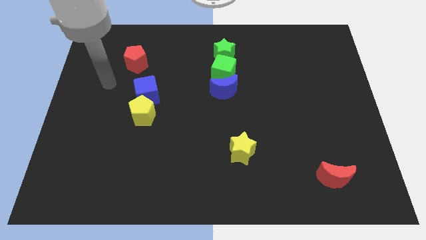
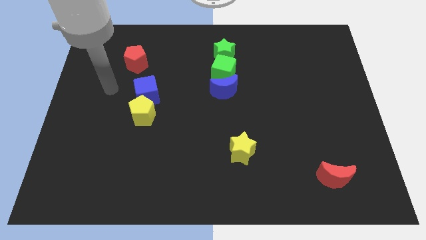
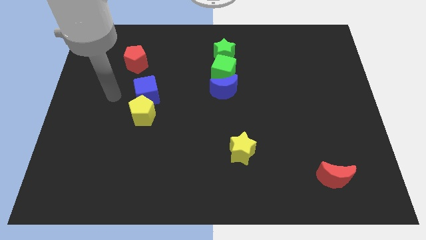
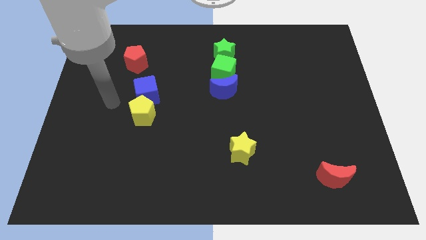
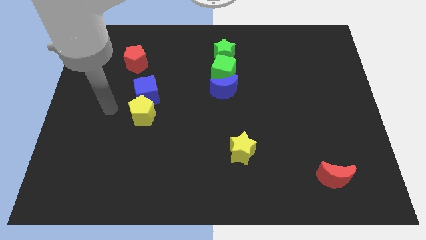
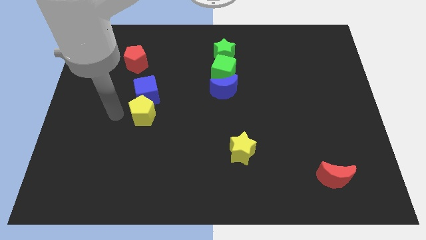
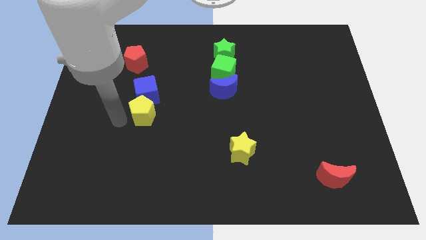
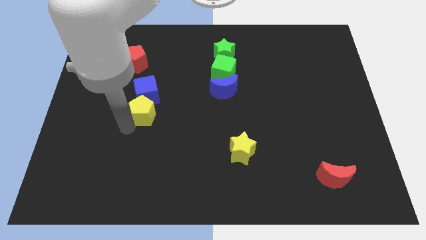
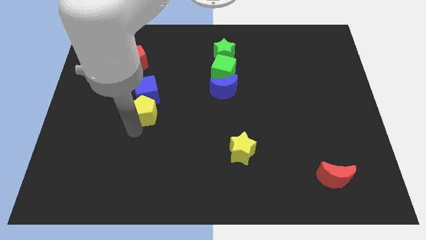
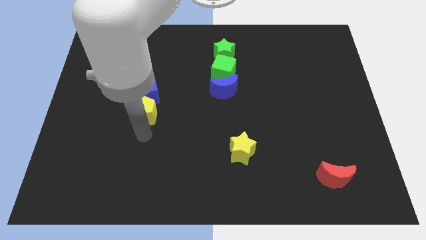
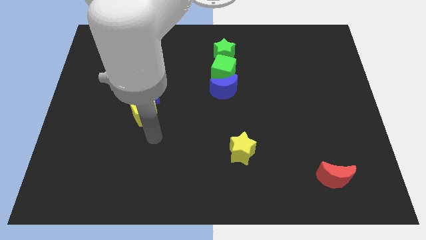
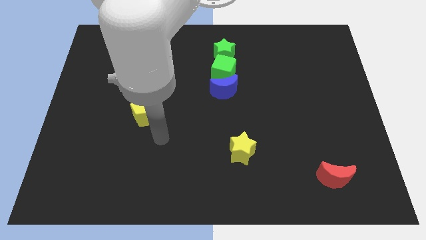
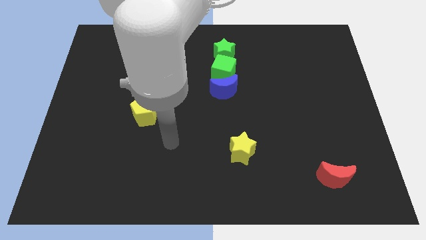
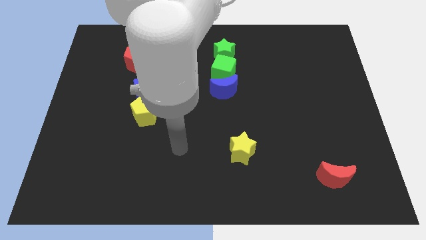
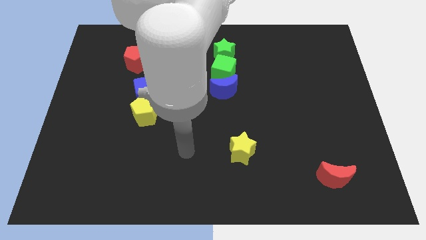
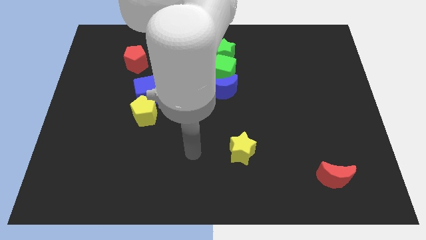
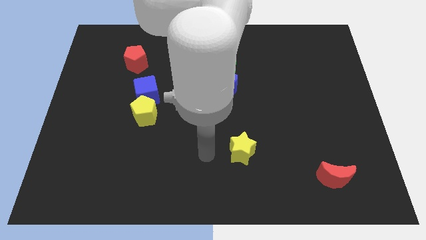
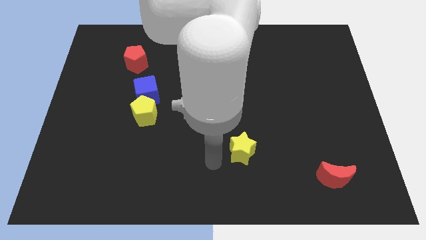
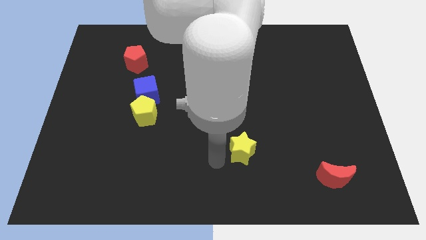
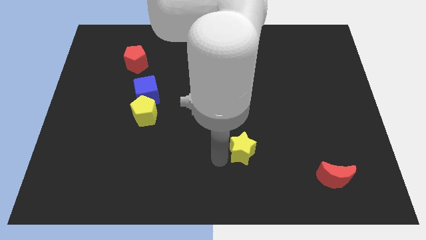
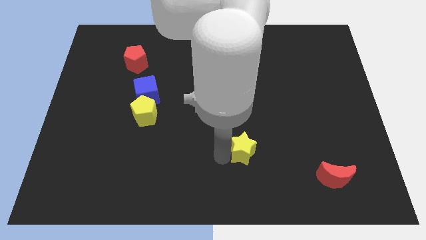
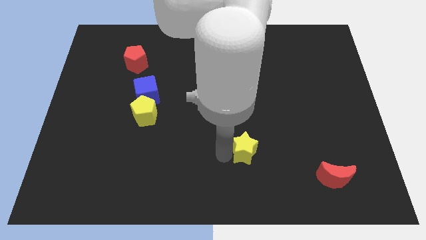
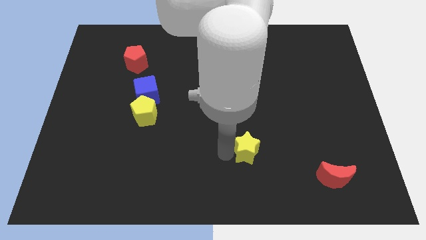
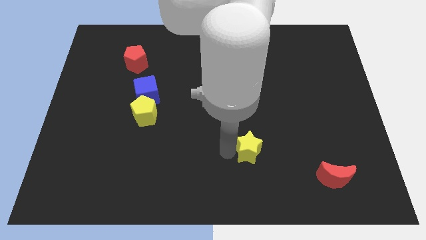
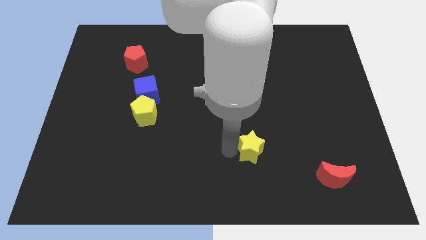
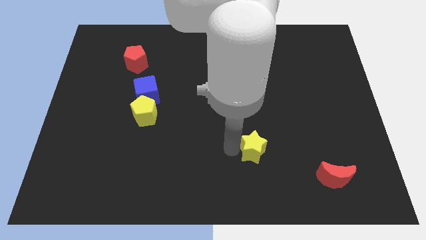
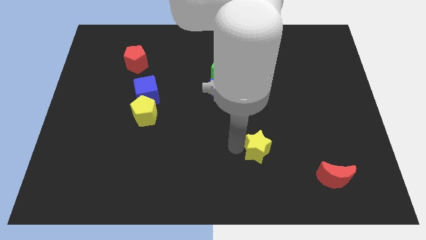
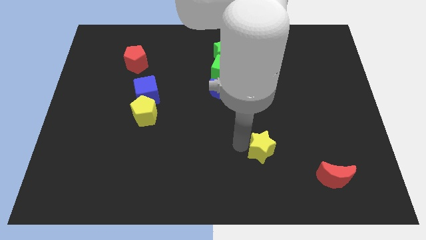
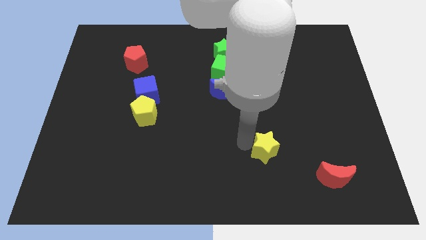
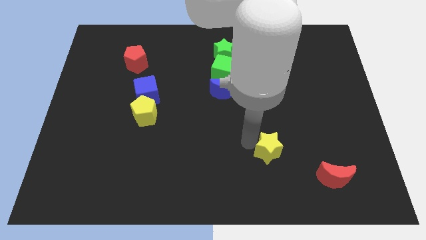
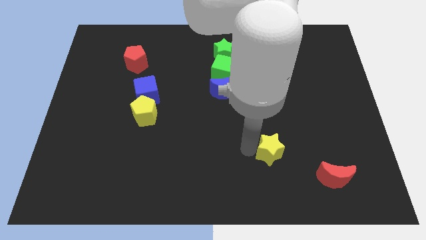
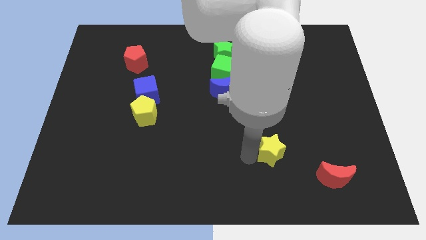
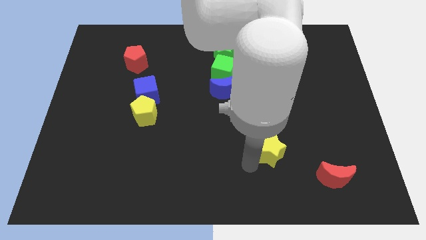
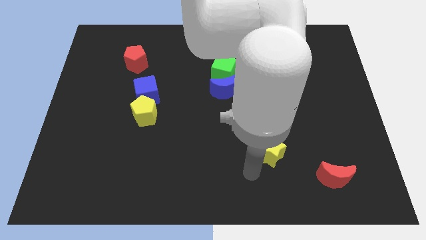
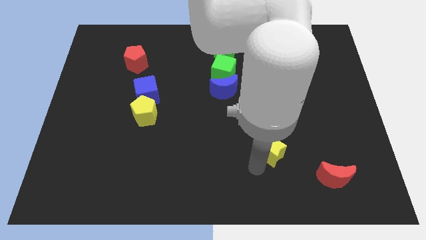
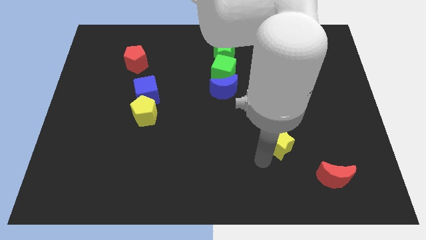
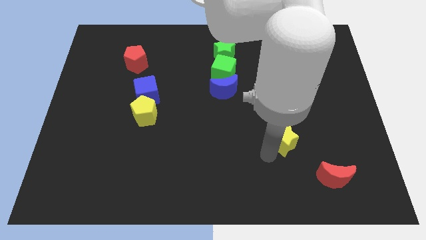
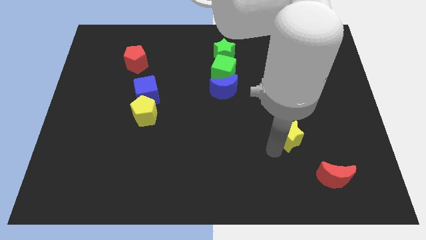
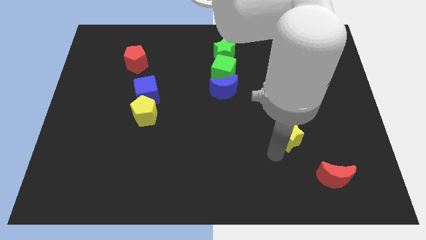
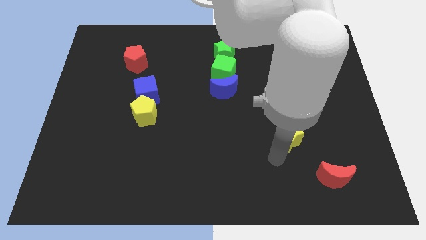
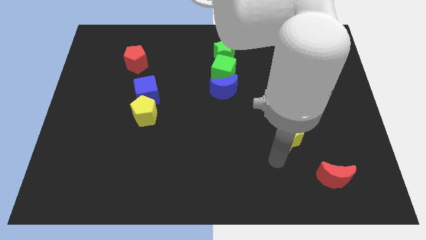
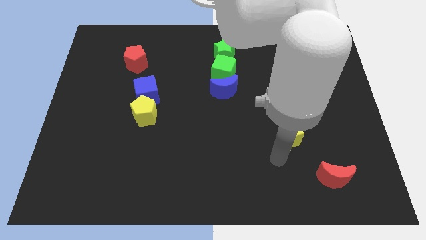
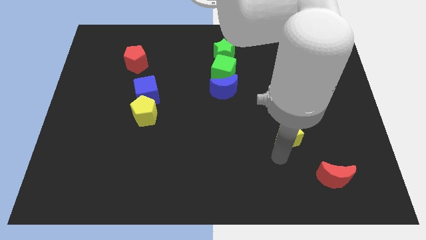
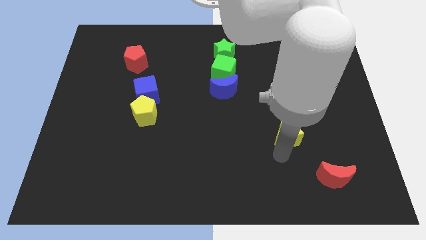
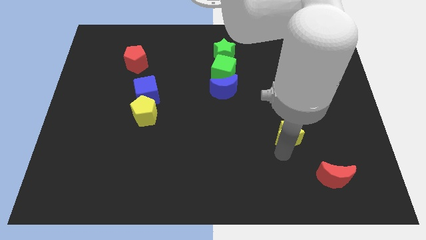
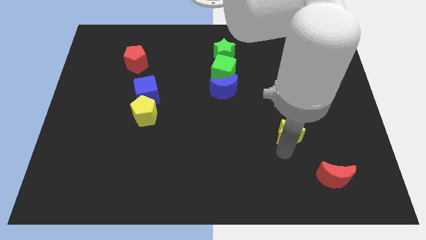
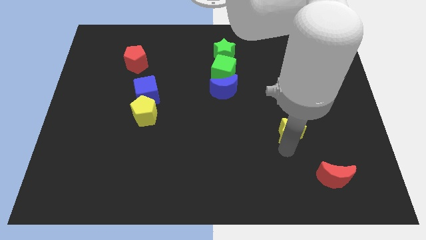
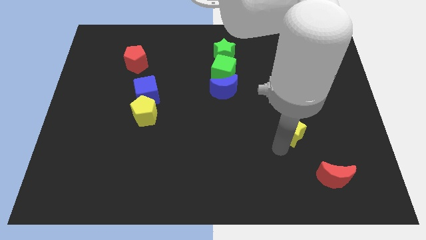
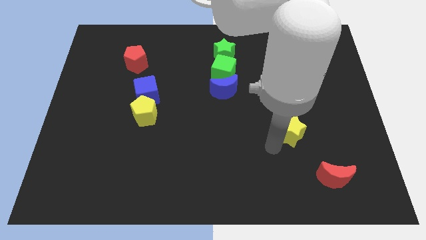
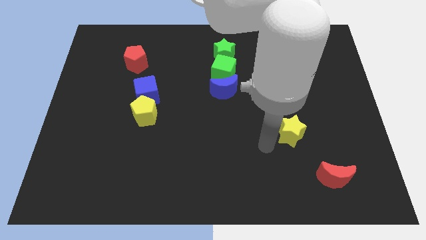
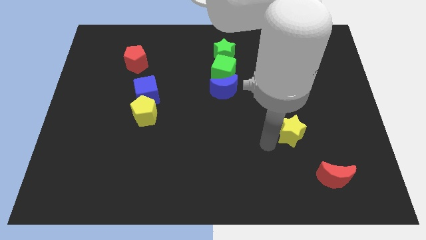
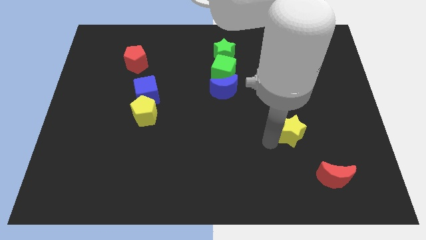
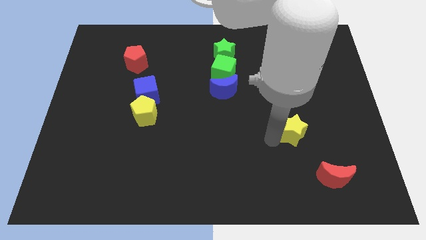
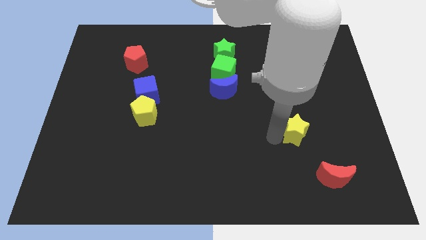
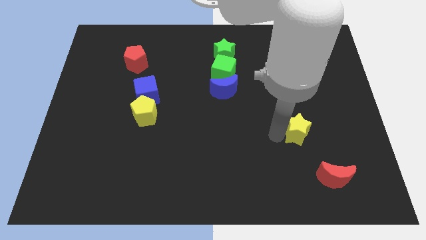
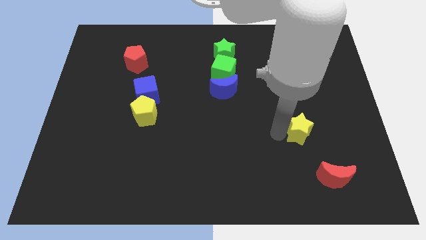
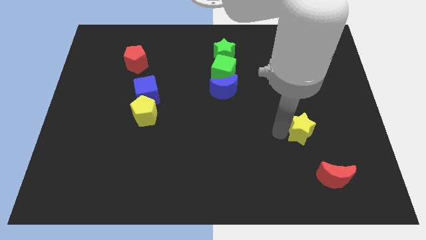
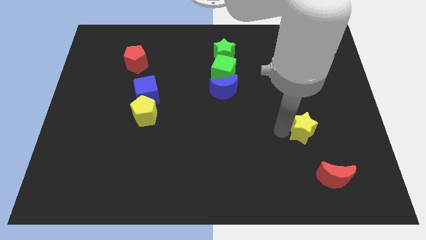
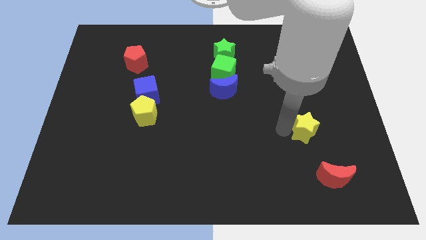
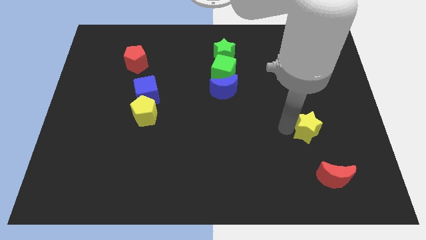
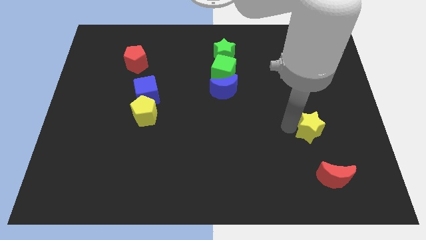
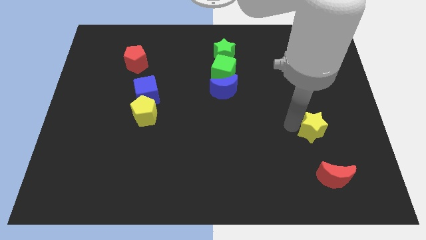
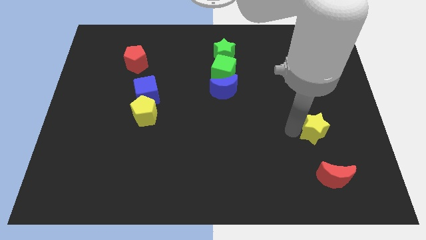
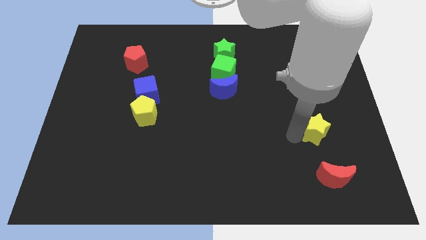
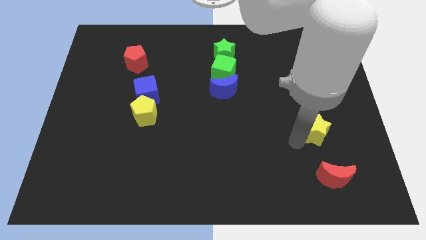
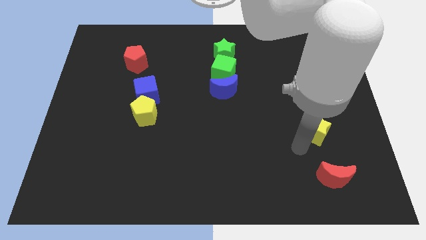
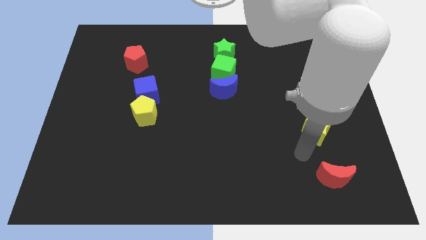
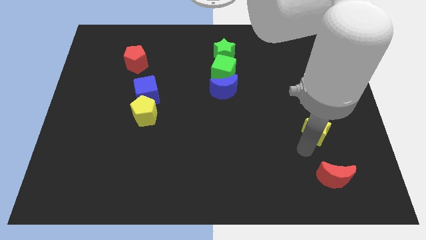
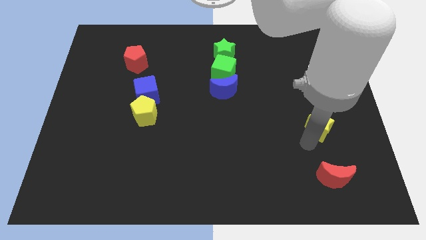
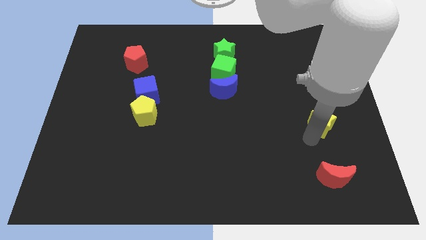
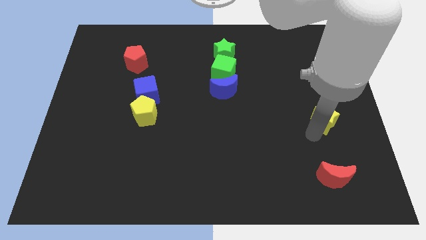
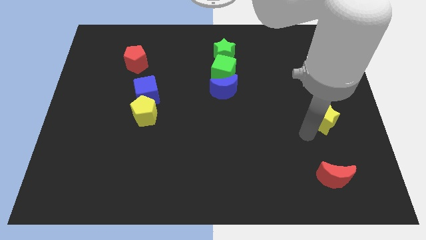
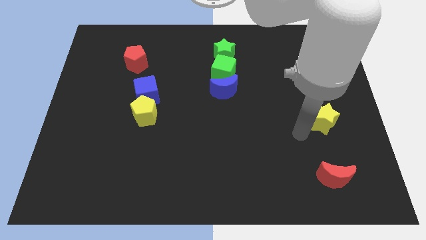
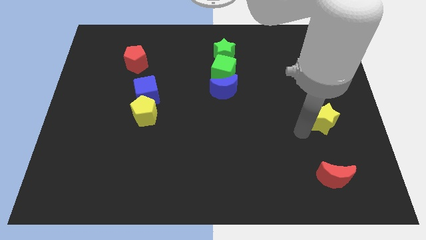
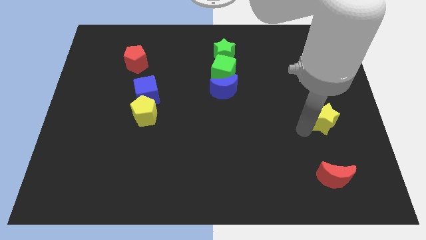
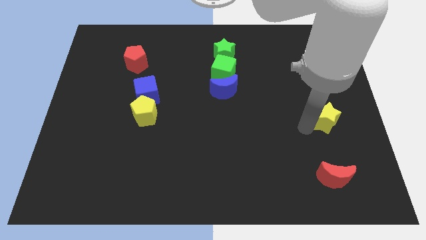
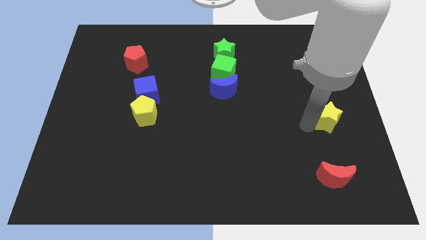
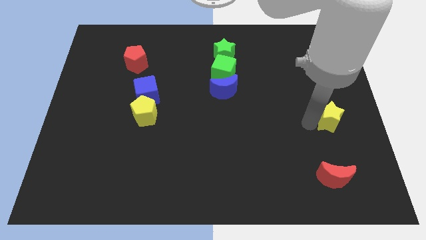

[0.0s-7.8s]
push the yellow star to the right side of the board

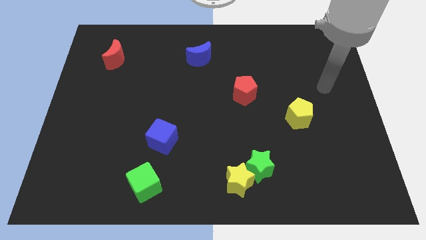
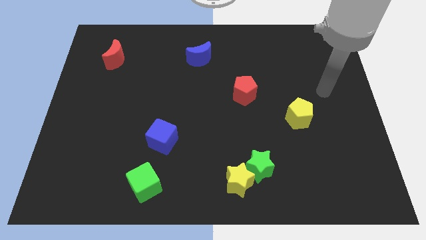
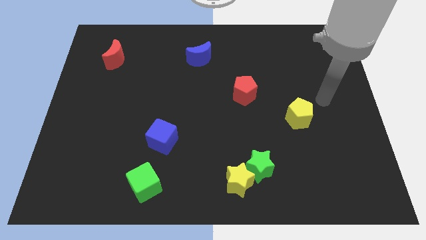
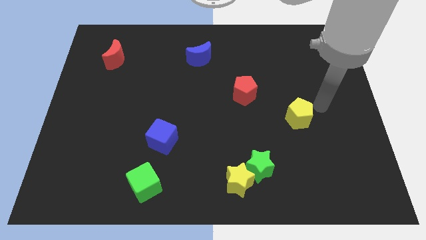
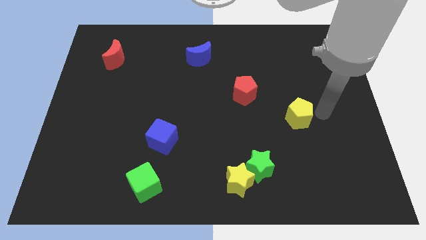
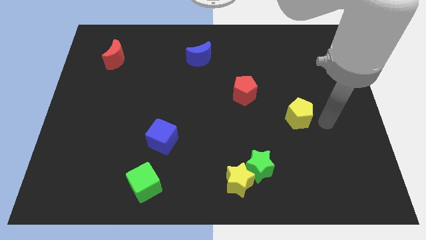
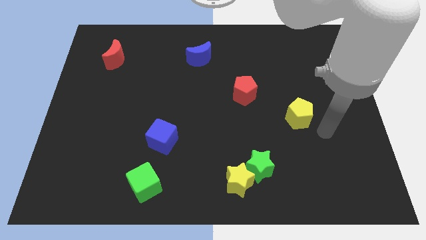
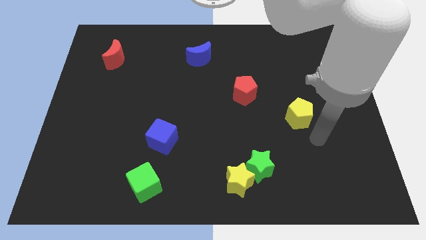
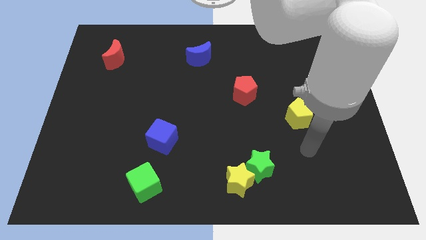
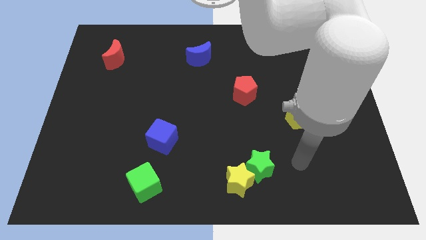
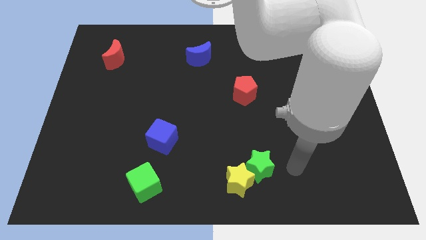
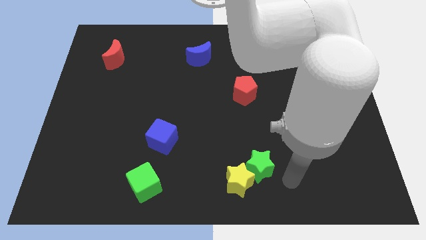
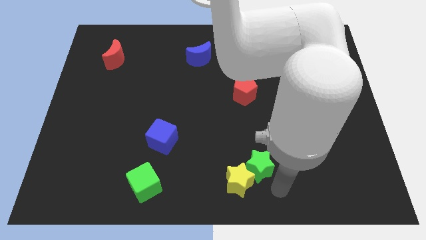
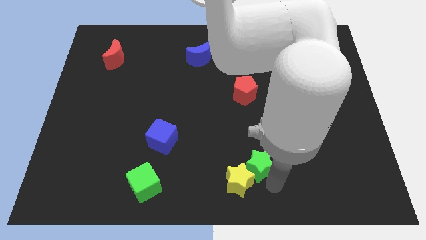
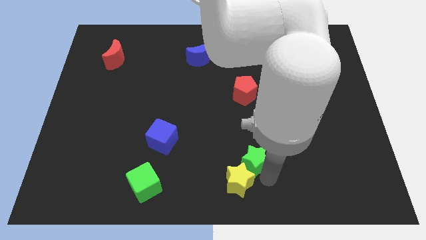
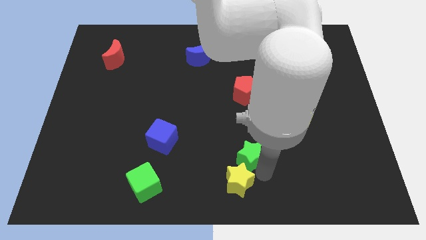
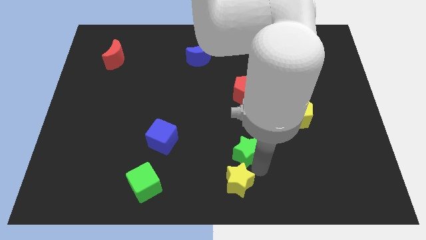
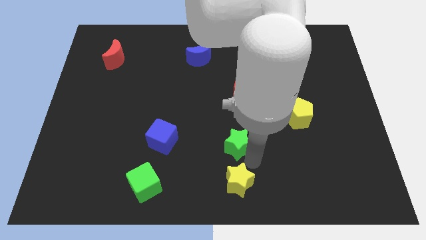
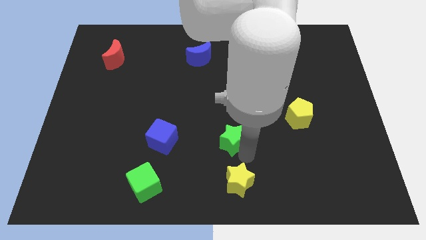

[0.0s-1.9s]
put the green star to the middle of the board
